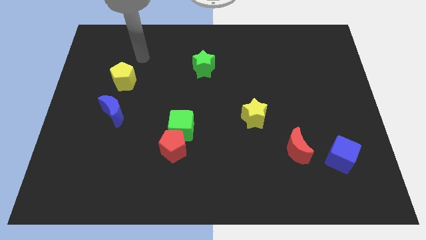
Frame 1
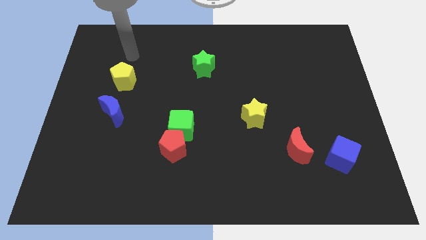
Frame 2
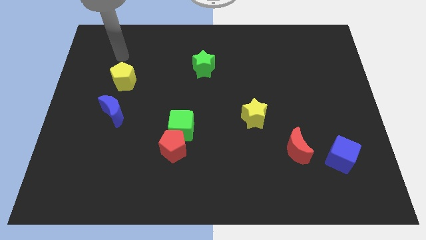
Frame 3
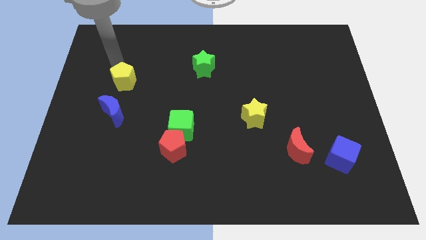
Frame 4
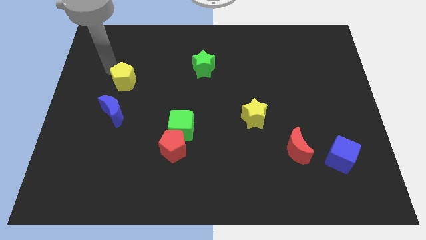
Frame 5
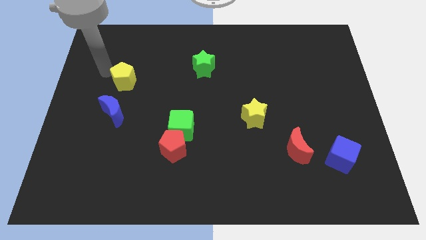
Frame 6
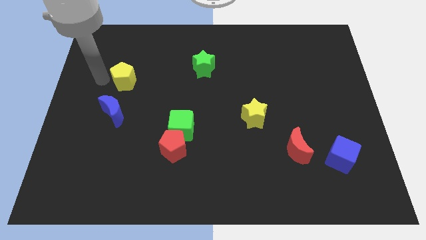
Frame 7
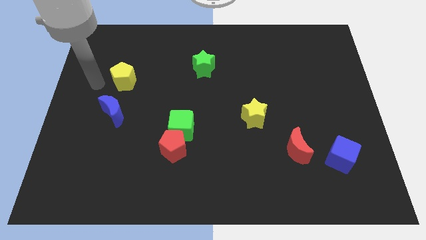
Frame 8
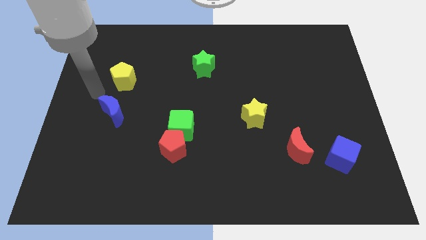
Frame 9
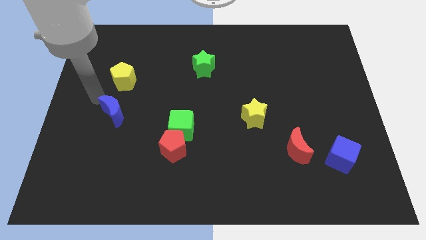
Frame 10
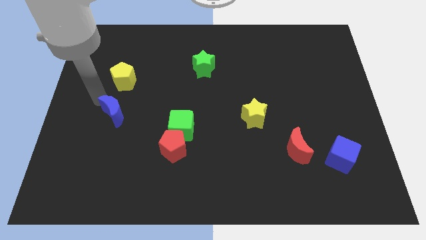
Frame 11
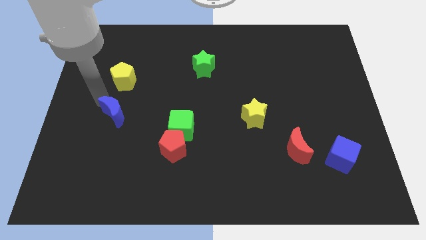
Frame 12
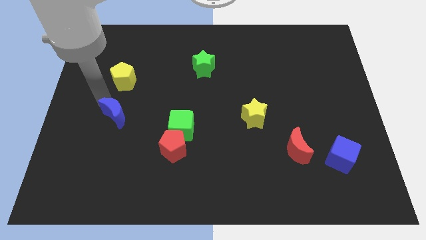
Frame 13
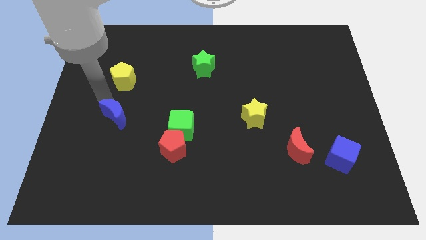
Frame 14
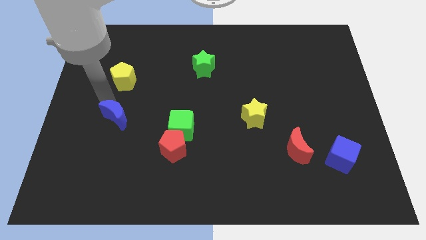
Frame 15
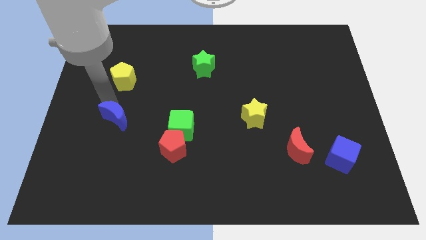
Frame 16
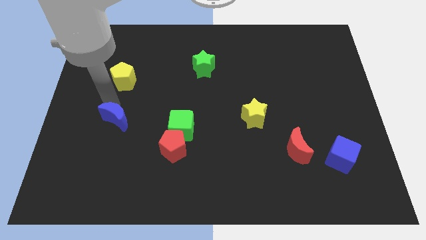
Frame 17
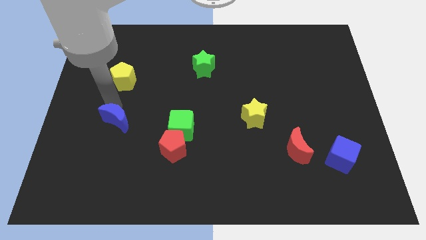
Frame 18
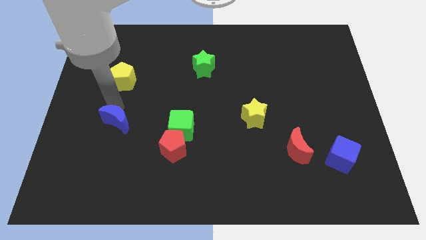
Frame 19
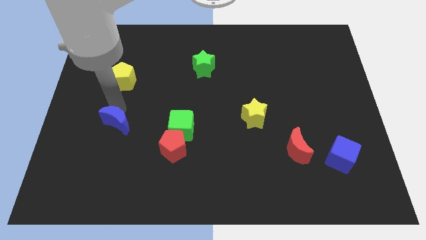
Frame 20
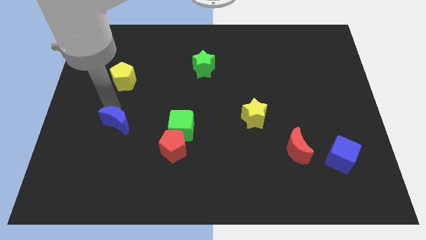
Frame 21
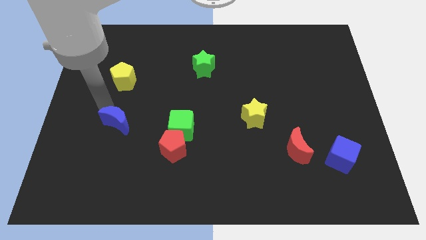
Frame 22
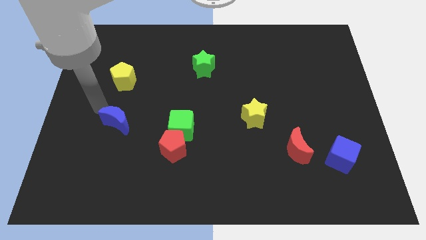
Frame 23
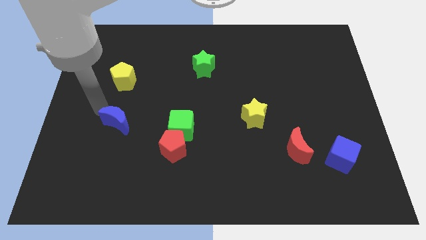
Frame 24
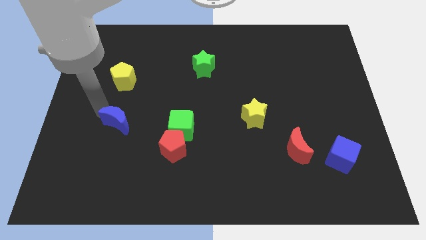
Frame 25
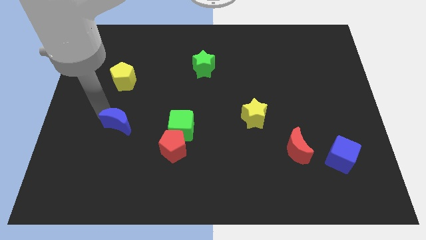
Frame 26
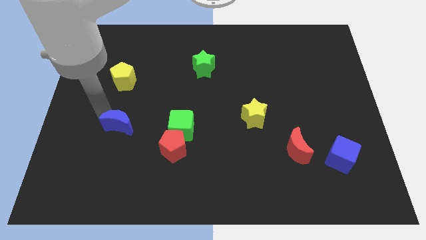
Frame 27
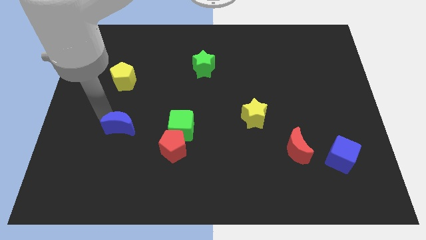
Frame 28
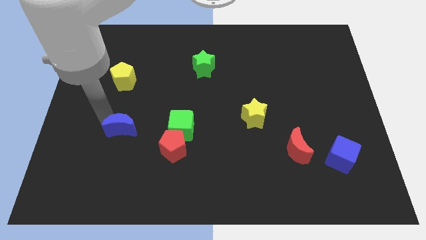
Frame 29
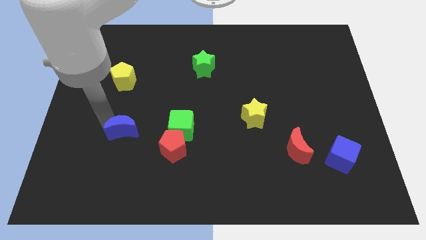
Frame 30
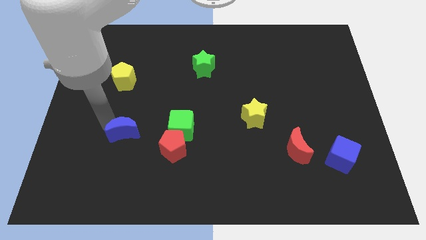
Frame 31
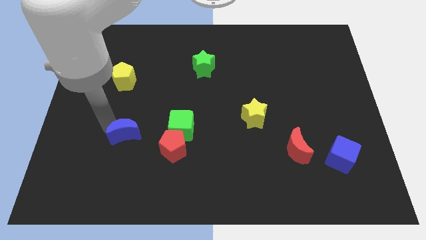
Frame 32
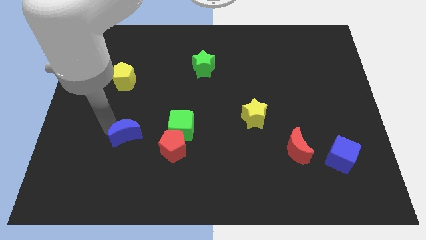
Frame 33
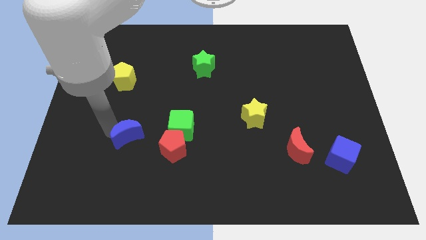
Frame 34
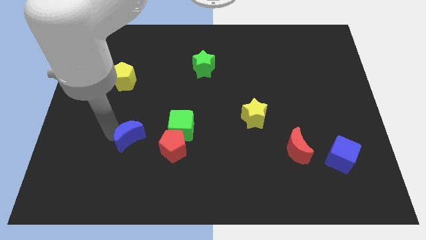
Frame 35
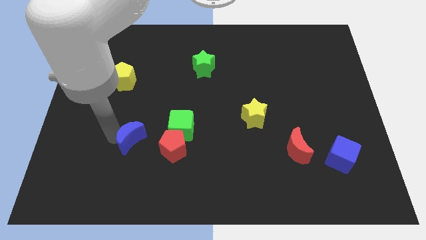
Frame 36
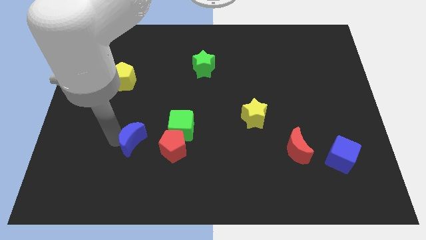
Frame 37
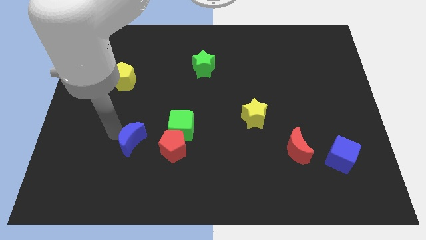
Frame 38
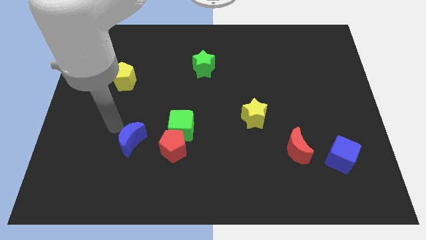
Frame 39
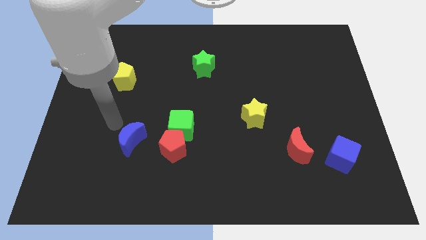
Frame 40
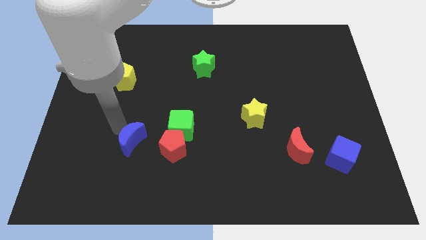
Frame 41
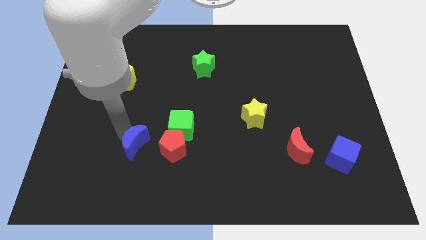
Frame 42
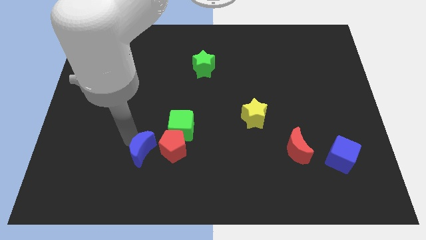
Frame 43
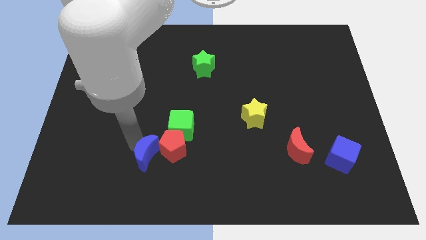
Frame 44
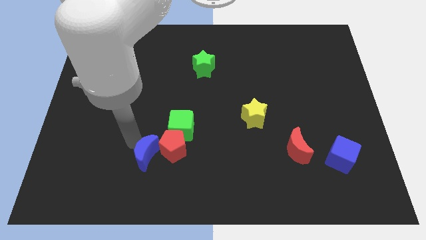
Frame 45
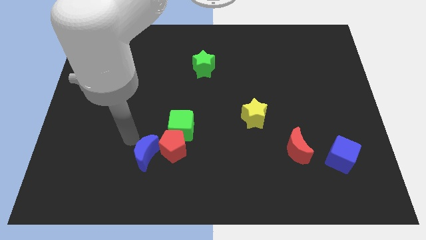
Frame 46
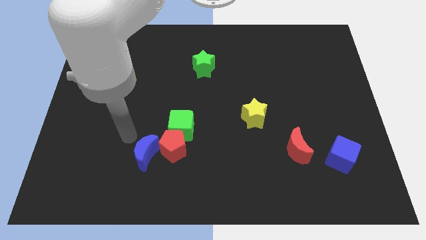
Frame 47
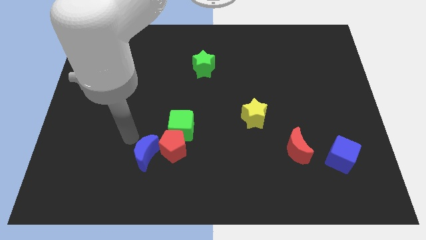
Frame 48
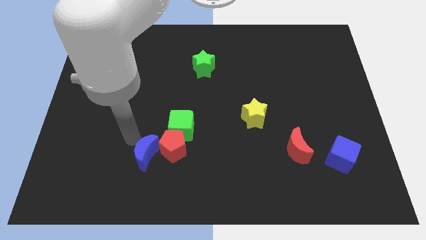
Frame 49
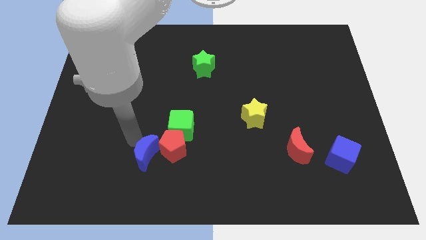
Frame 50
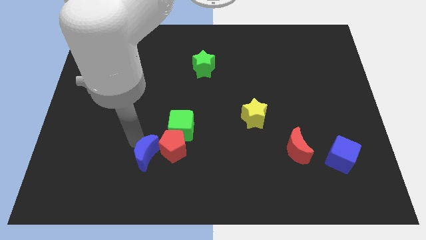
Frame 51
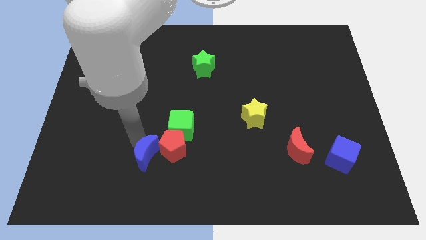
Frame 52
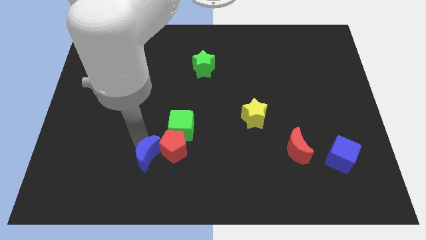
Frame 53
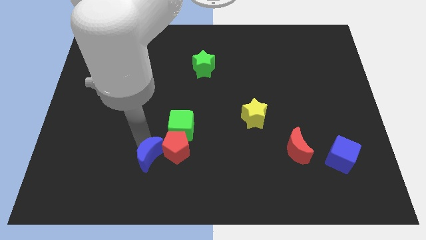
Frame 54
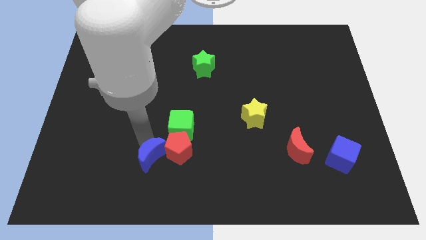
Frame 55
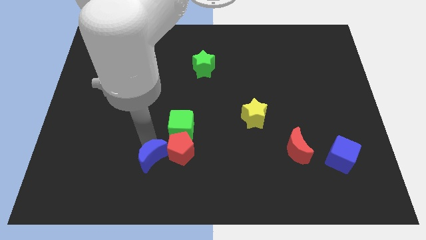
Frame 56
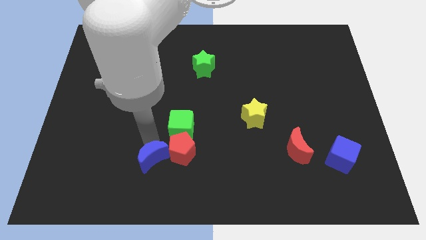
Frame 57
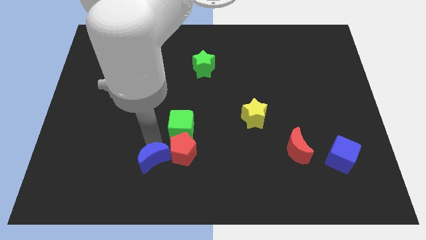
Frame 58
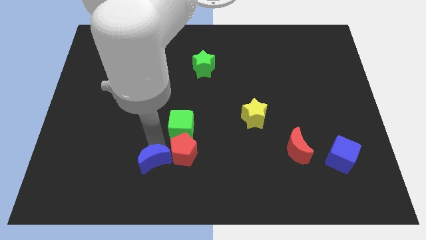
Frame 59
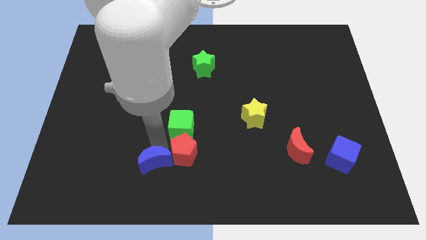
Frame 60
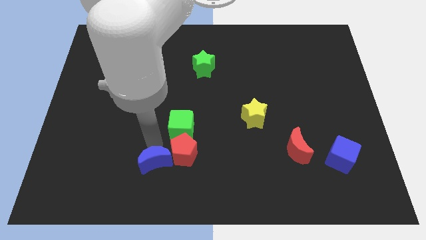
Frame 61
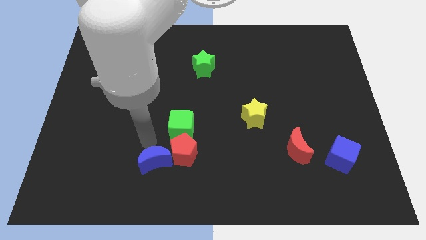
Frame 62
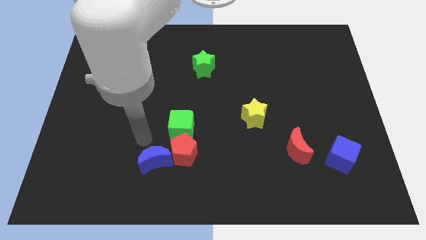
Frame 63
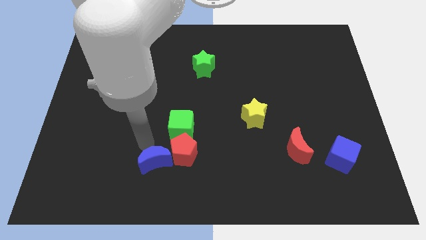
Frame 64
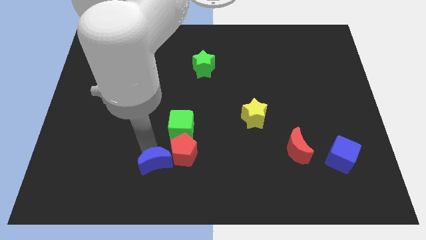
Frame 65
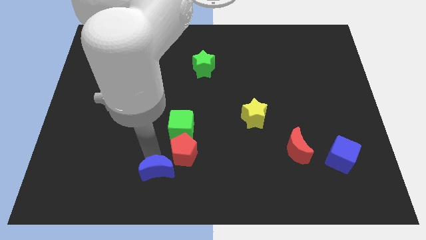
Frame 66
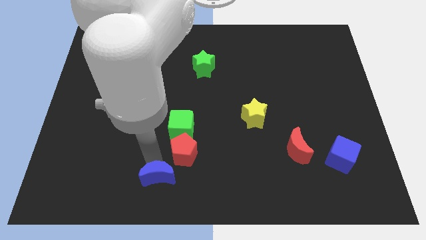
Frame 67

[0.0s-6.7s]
move the blue moon to the bottom
